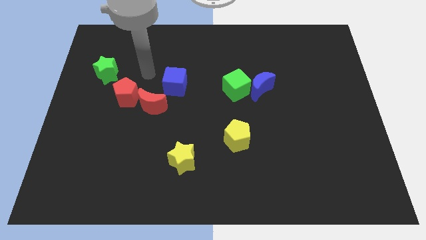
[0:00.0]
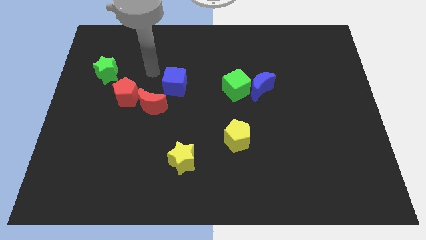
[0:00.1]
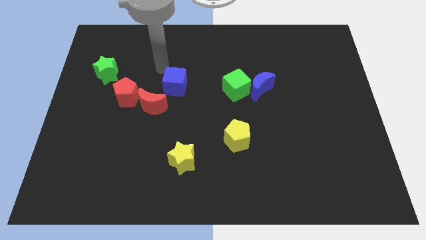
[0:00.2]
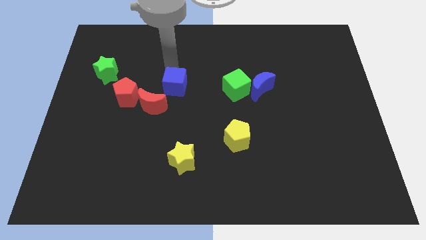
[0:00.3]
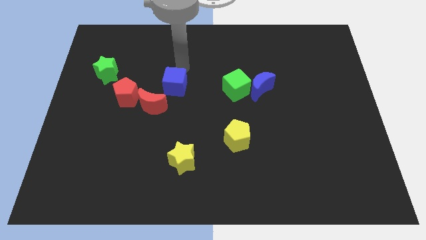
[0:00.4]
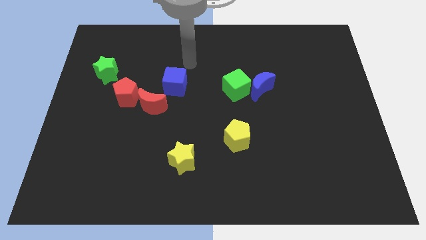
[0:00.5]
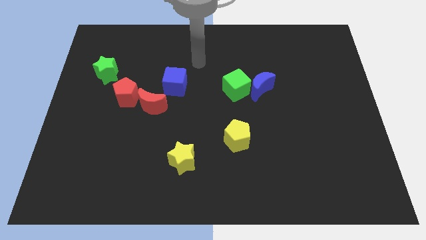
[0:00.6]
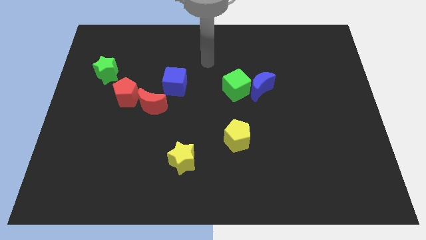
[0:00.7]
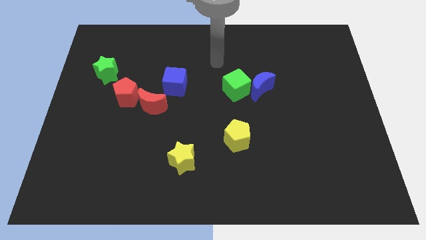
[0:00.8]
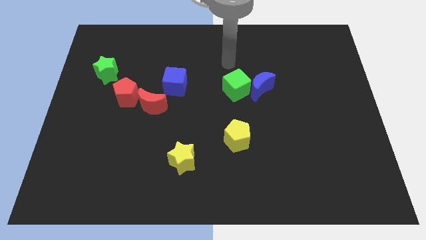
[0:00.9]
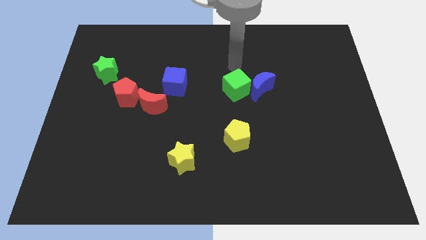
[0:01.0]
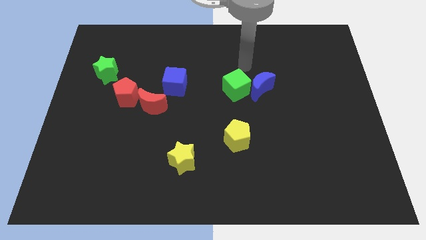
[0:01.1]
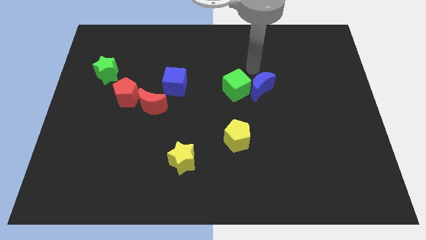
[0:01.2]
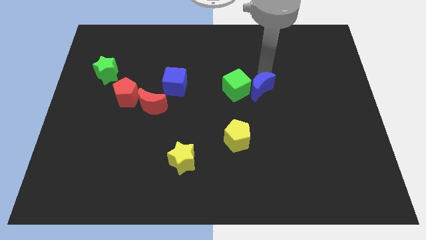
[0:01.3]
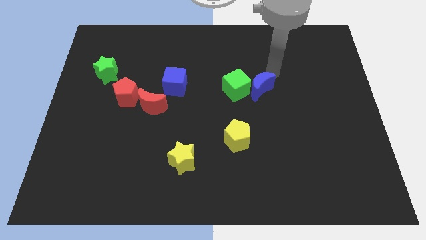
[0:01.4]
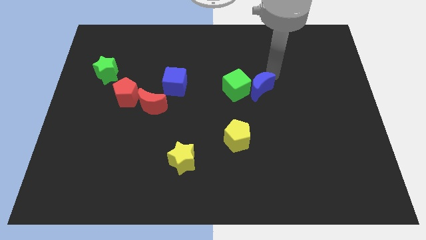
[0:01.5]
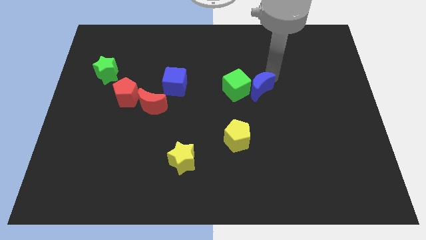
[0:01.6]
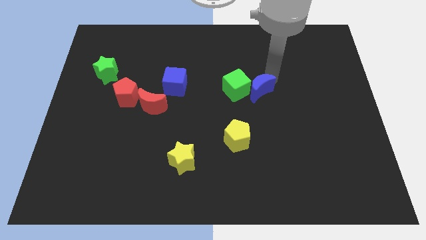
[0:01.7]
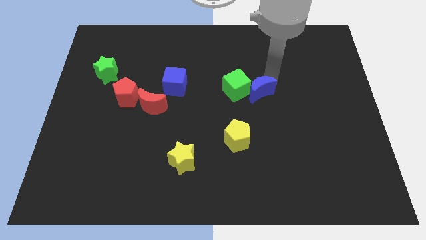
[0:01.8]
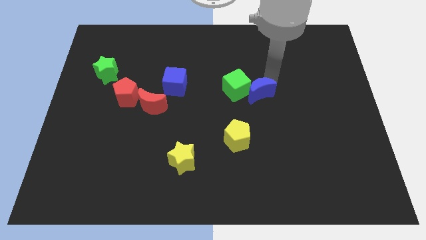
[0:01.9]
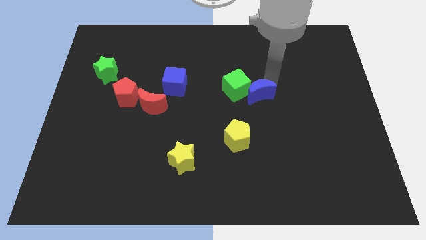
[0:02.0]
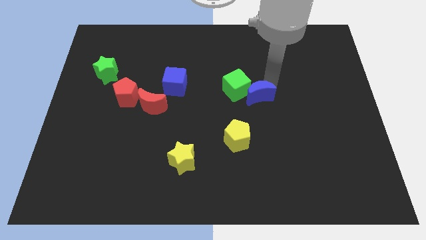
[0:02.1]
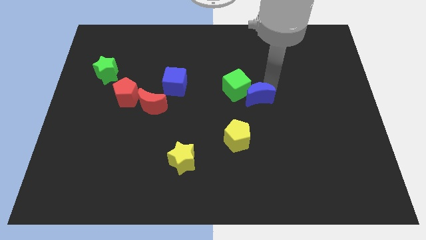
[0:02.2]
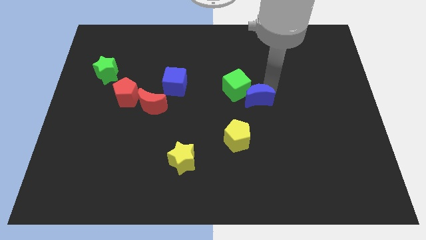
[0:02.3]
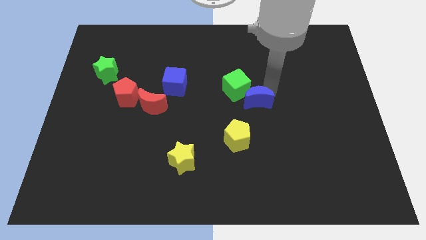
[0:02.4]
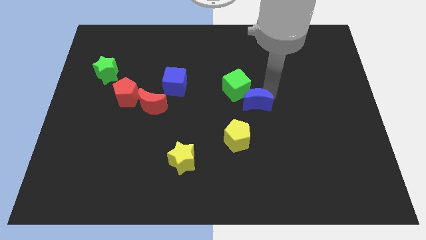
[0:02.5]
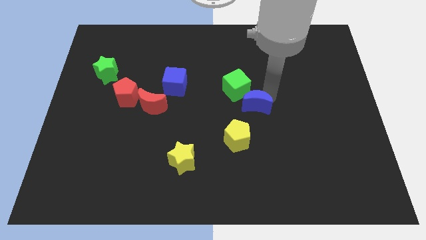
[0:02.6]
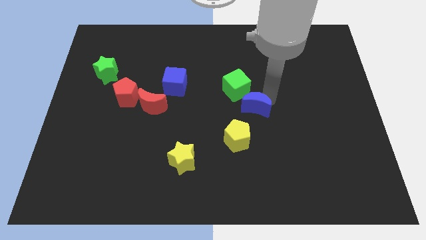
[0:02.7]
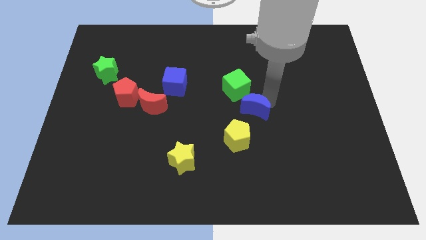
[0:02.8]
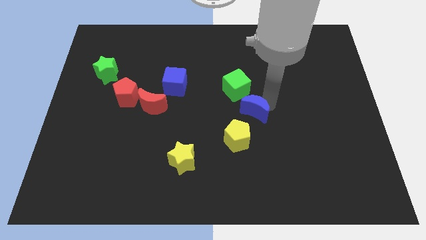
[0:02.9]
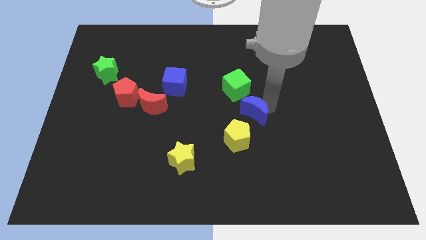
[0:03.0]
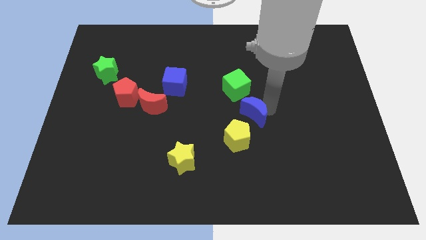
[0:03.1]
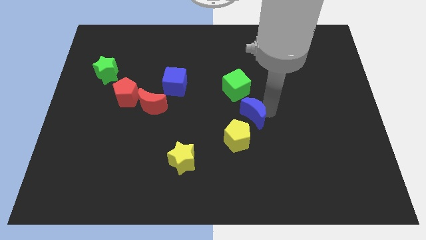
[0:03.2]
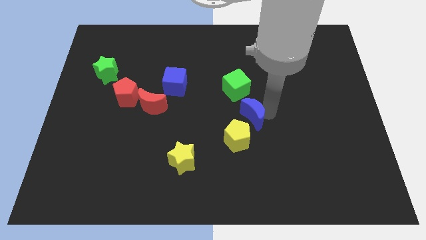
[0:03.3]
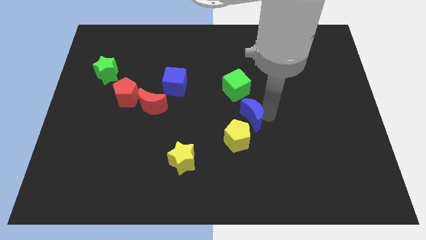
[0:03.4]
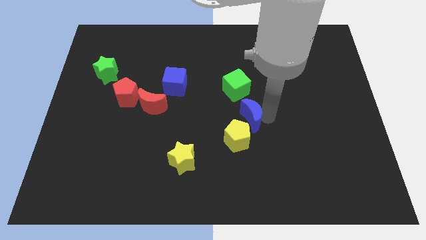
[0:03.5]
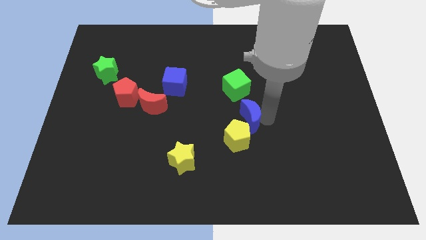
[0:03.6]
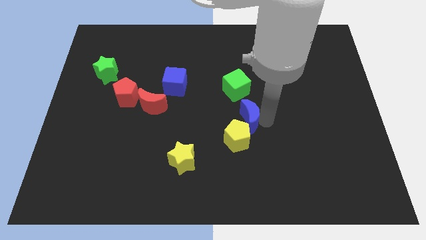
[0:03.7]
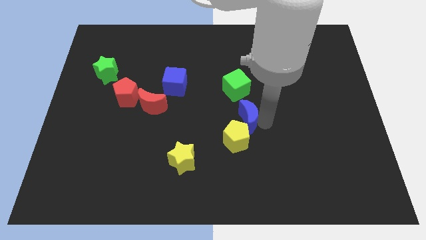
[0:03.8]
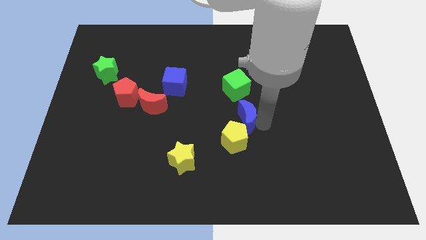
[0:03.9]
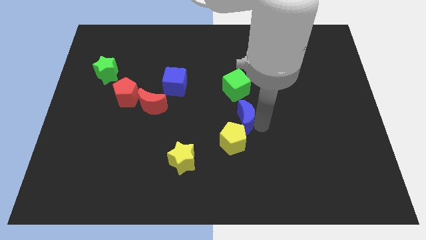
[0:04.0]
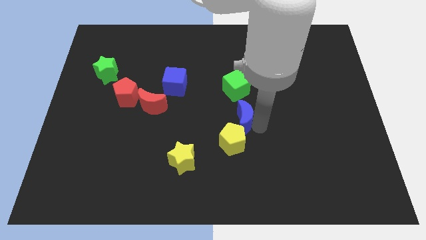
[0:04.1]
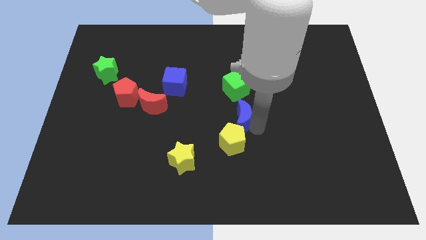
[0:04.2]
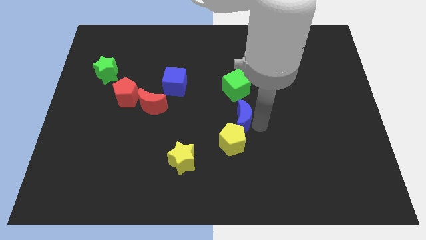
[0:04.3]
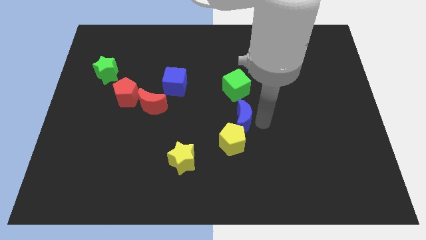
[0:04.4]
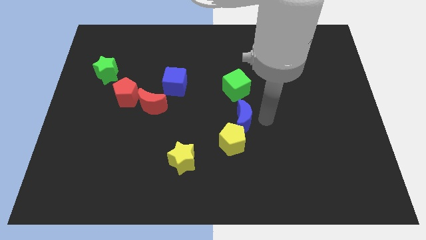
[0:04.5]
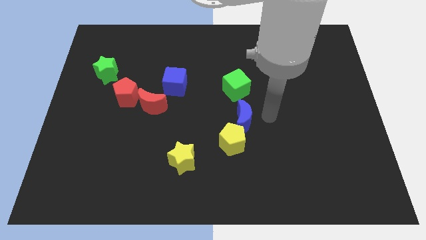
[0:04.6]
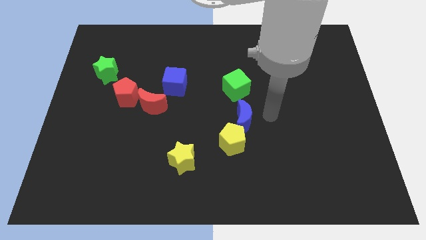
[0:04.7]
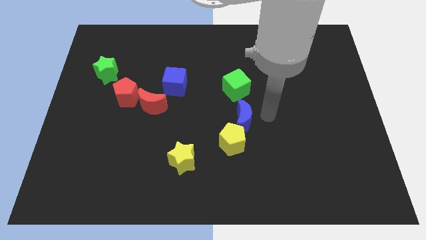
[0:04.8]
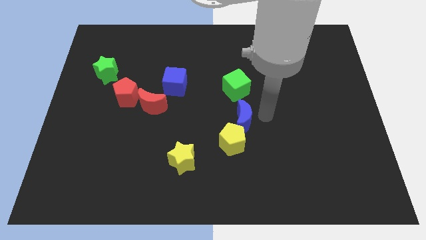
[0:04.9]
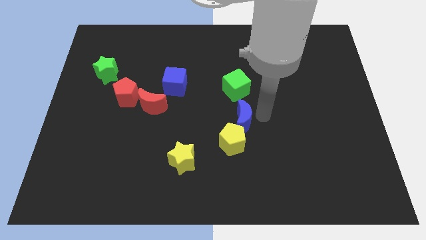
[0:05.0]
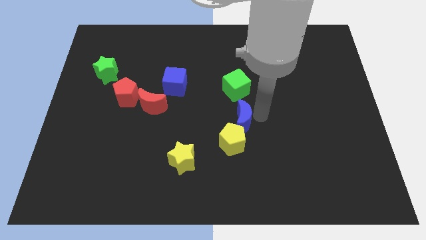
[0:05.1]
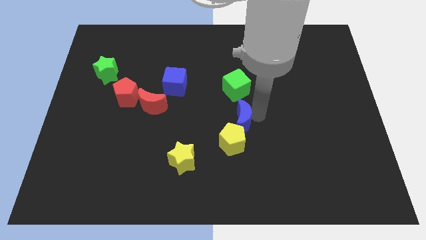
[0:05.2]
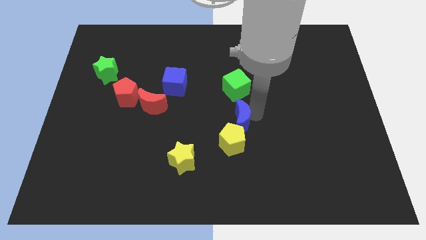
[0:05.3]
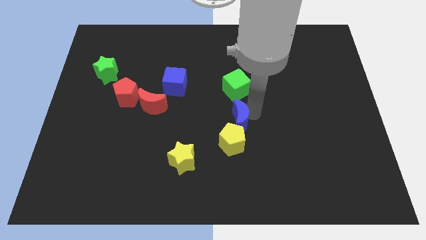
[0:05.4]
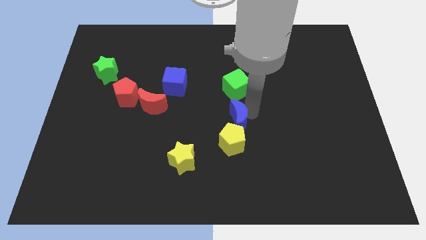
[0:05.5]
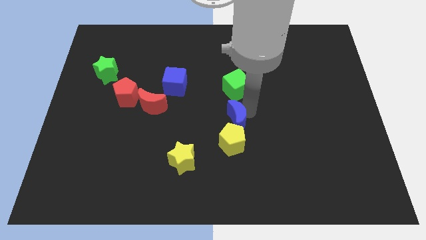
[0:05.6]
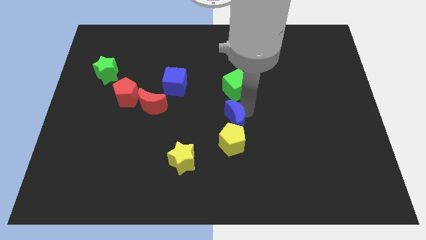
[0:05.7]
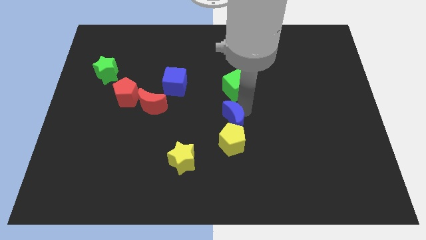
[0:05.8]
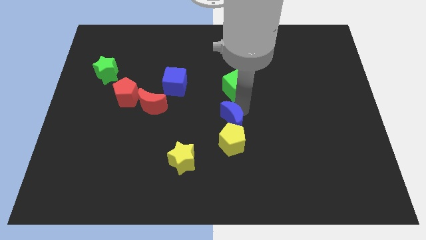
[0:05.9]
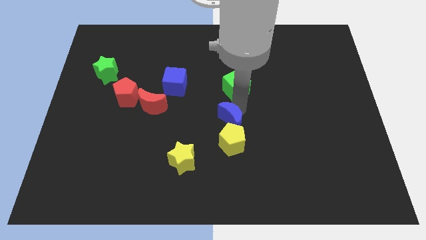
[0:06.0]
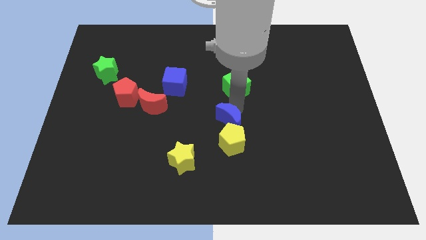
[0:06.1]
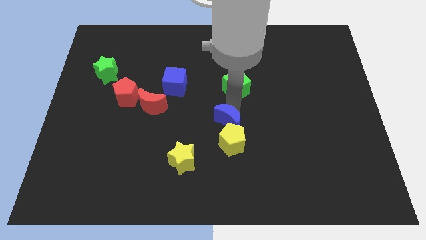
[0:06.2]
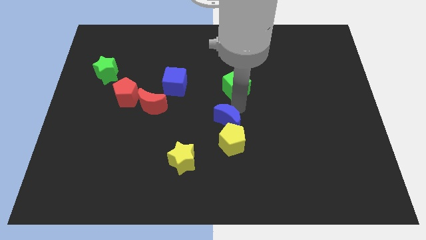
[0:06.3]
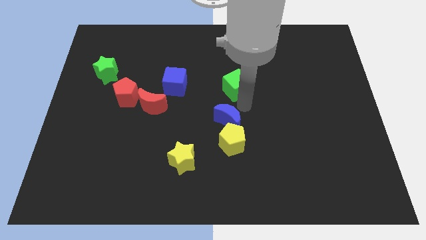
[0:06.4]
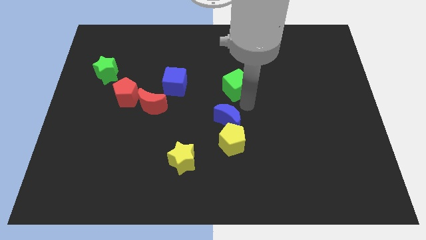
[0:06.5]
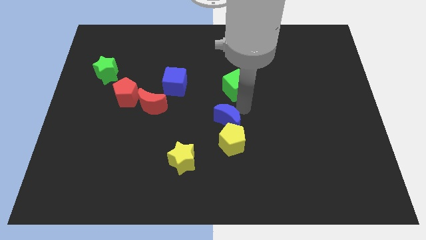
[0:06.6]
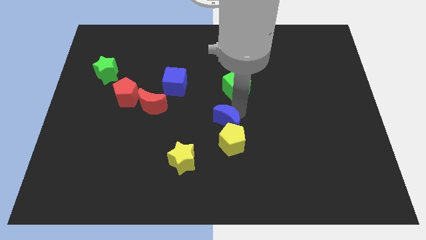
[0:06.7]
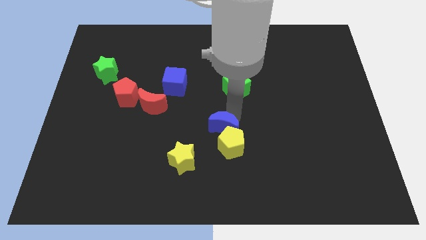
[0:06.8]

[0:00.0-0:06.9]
put the blue moon to the top right side of the yellow star
